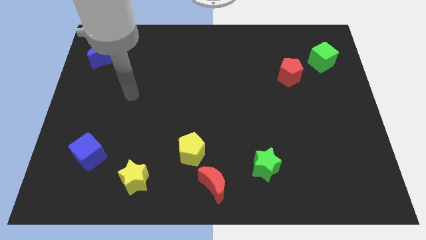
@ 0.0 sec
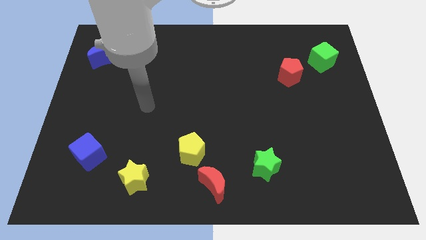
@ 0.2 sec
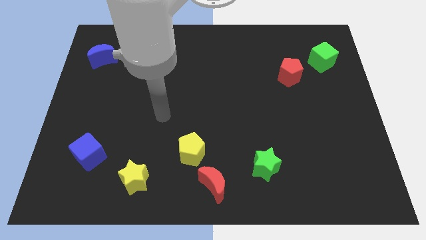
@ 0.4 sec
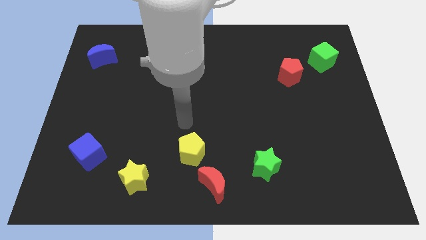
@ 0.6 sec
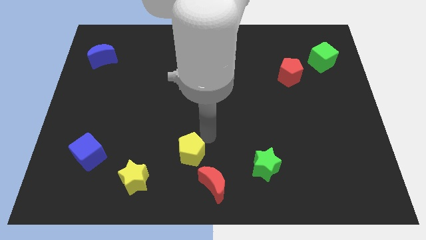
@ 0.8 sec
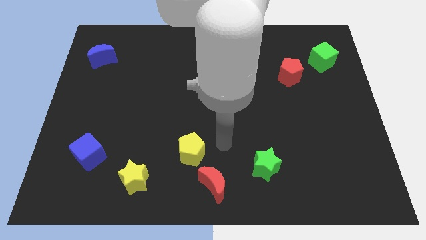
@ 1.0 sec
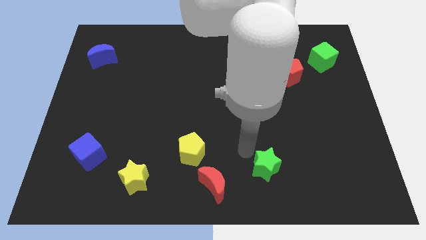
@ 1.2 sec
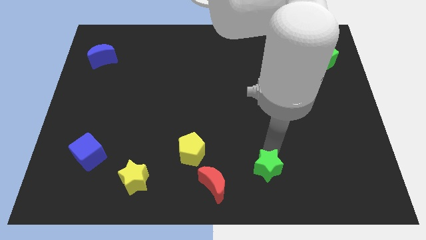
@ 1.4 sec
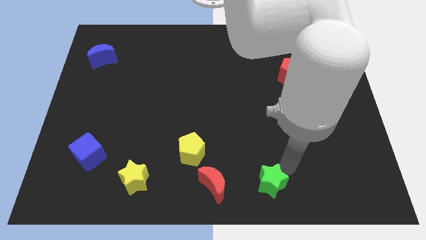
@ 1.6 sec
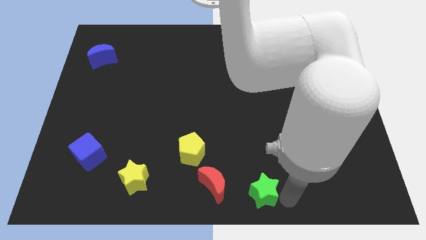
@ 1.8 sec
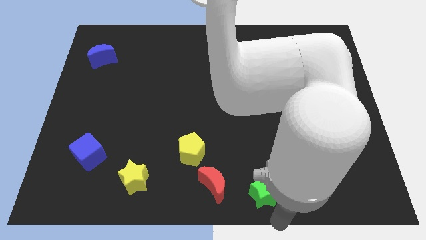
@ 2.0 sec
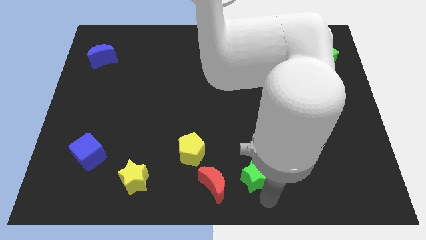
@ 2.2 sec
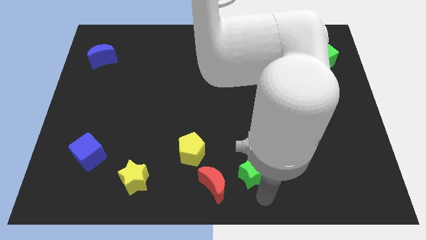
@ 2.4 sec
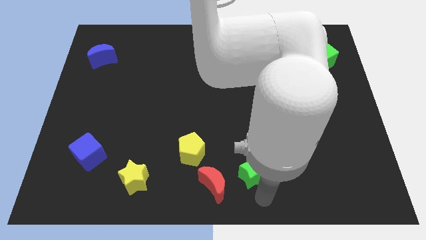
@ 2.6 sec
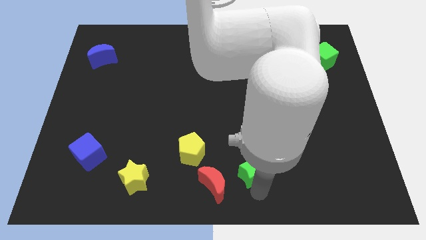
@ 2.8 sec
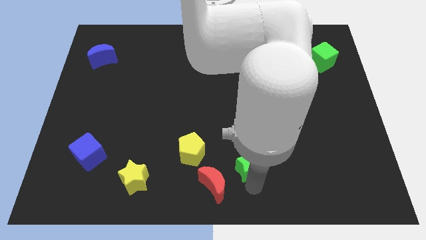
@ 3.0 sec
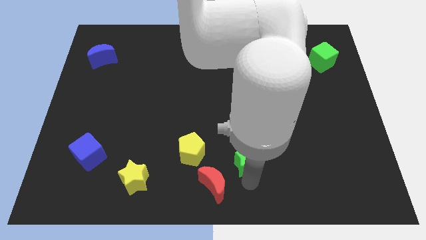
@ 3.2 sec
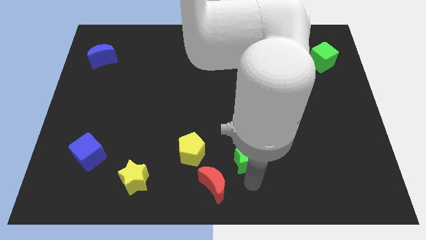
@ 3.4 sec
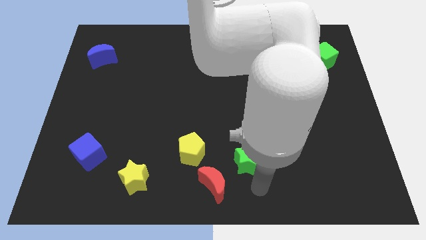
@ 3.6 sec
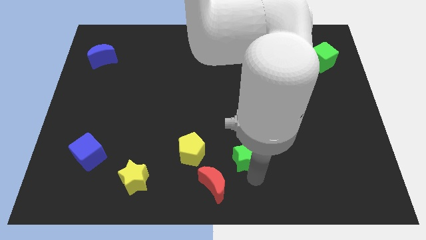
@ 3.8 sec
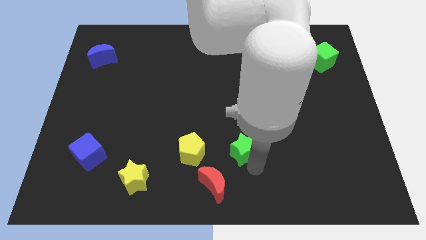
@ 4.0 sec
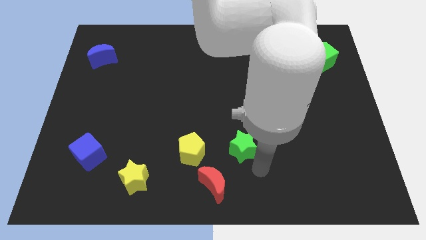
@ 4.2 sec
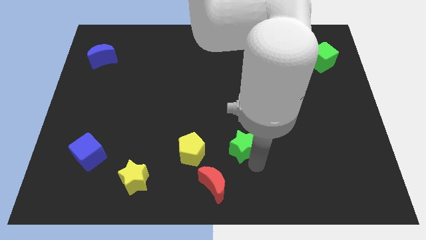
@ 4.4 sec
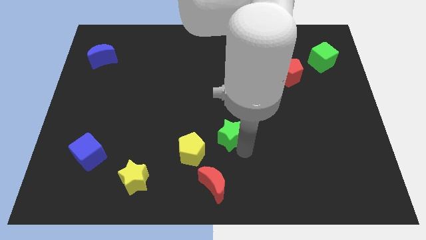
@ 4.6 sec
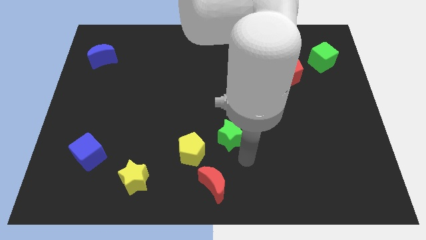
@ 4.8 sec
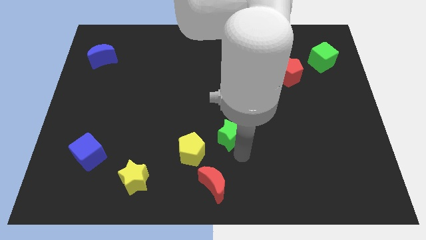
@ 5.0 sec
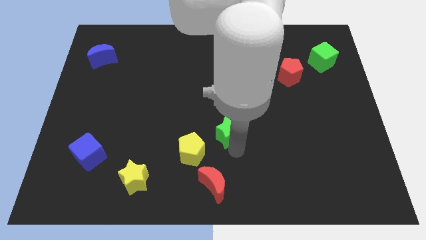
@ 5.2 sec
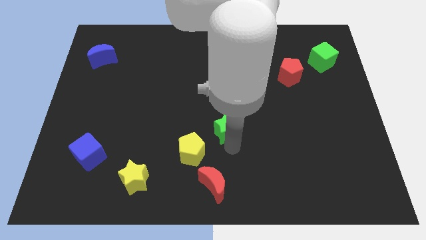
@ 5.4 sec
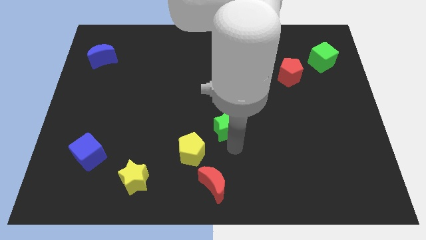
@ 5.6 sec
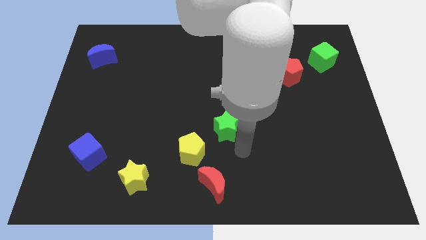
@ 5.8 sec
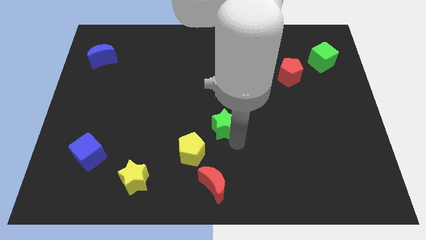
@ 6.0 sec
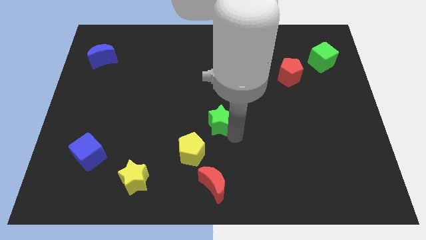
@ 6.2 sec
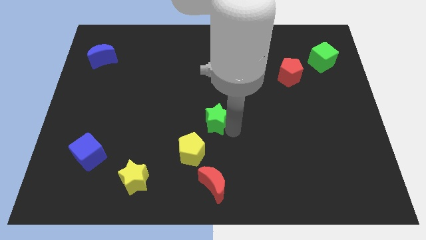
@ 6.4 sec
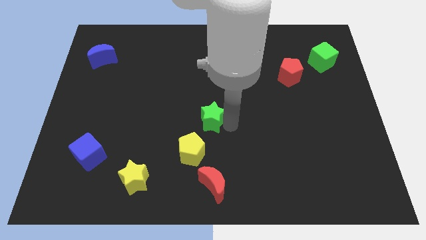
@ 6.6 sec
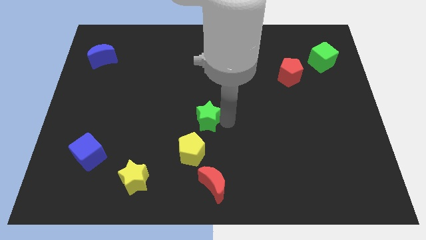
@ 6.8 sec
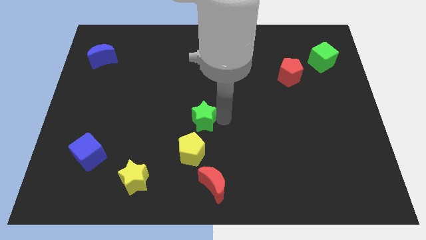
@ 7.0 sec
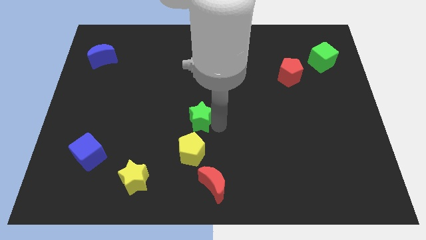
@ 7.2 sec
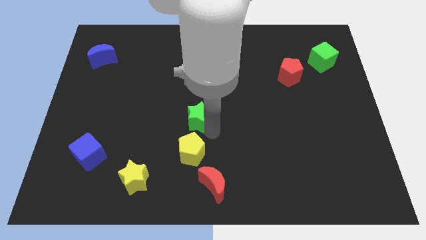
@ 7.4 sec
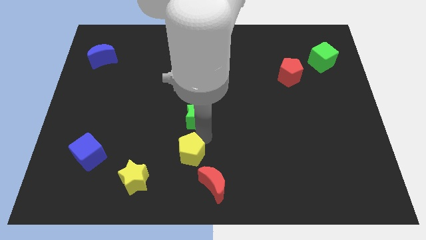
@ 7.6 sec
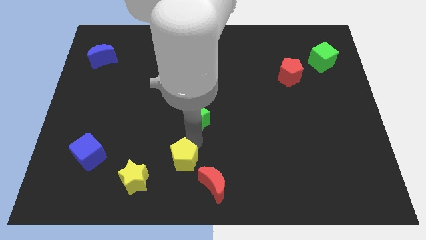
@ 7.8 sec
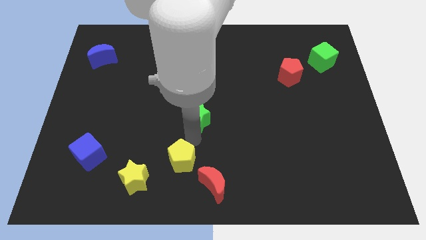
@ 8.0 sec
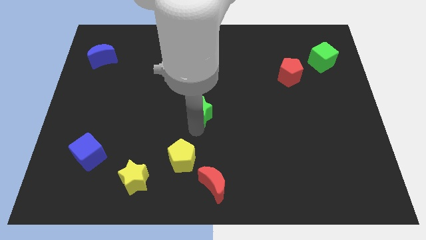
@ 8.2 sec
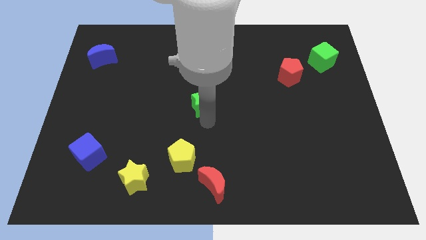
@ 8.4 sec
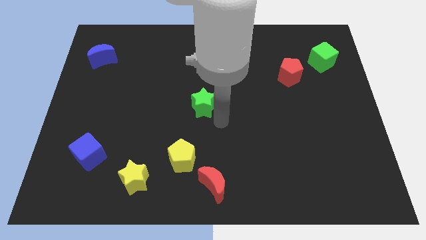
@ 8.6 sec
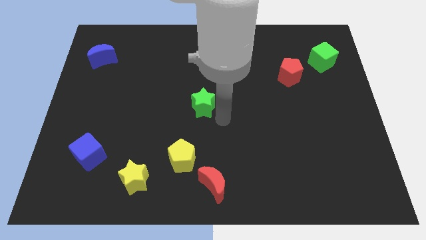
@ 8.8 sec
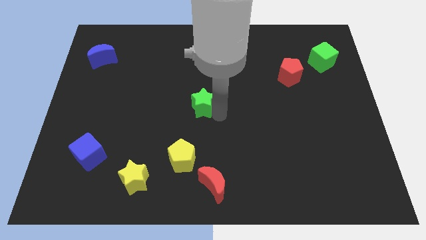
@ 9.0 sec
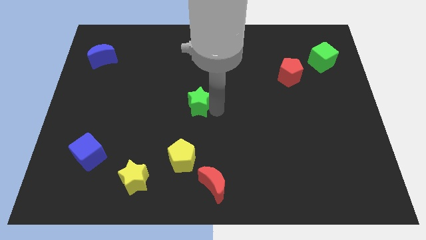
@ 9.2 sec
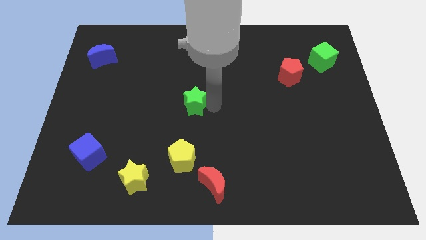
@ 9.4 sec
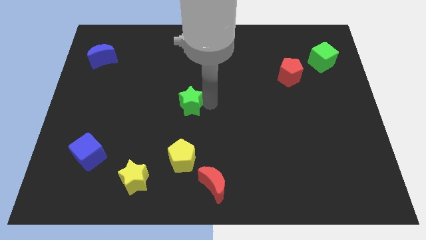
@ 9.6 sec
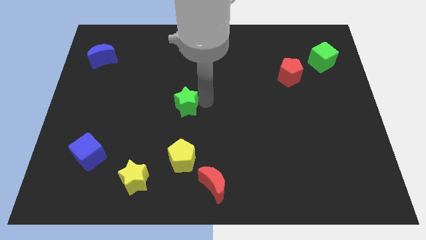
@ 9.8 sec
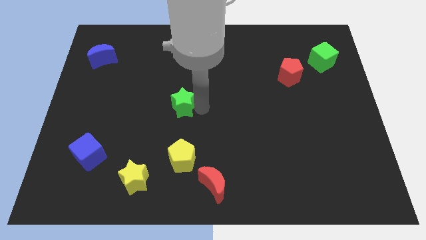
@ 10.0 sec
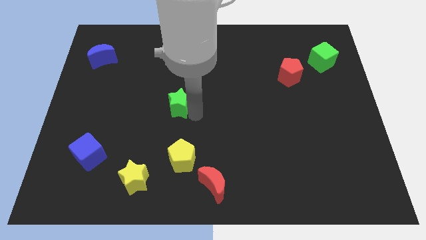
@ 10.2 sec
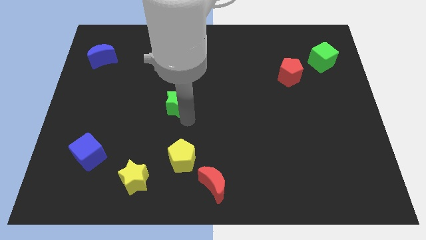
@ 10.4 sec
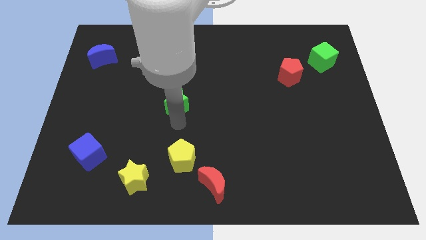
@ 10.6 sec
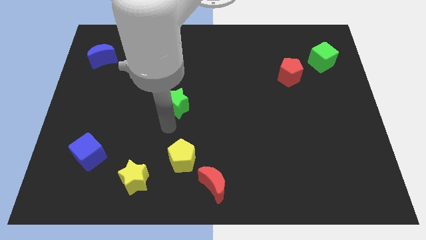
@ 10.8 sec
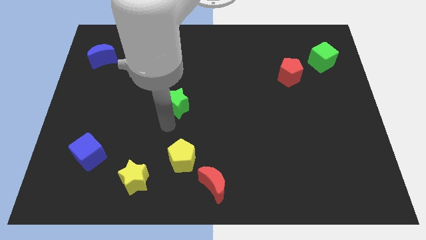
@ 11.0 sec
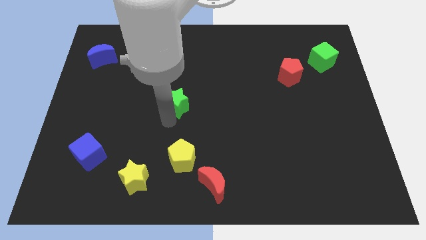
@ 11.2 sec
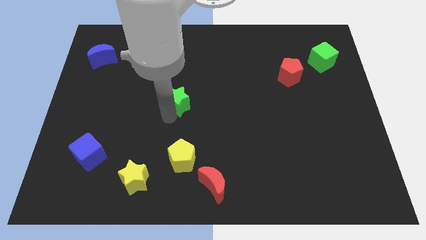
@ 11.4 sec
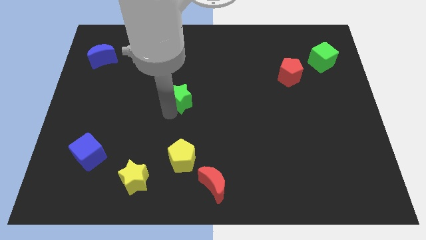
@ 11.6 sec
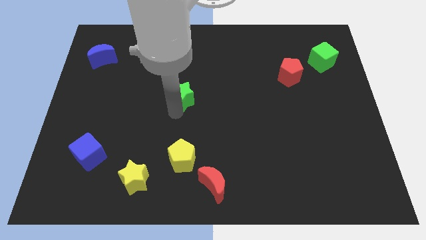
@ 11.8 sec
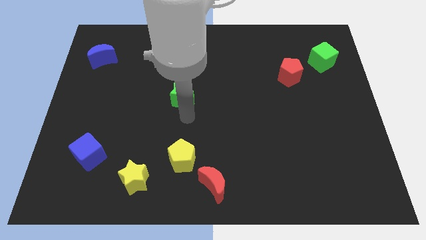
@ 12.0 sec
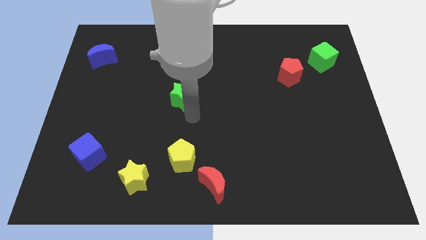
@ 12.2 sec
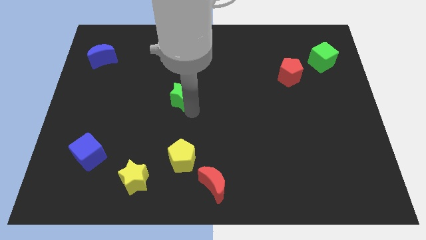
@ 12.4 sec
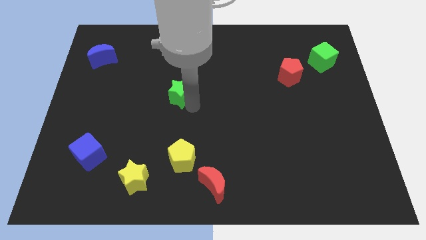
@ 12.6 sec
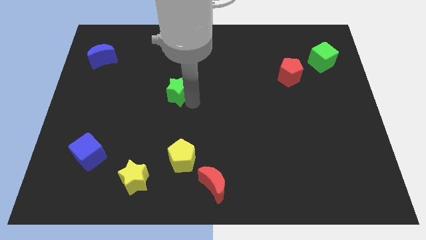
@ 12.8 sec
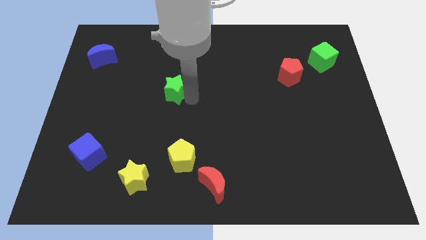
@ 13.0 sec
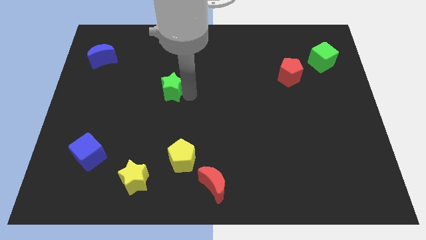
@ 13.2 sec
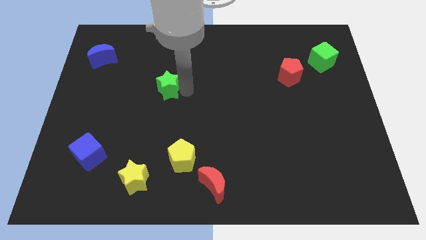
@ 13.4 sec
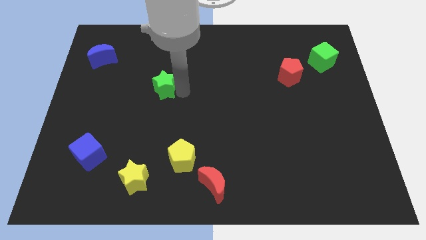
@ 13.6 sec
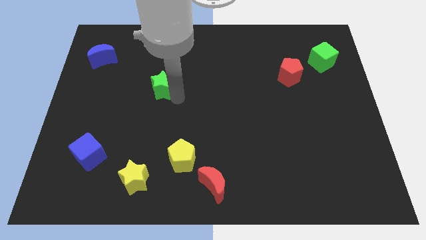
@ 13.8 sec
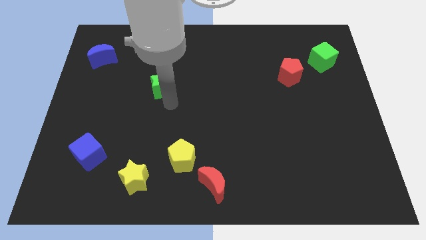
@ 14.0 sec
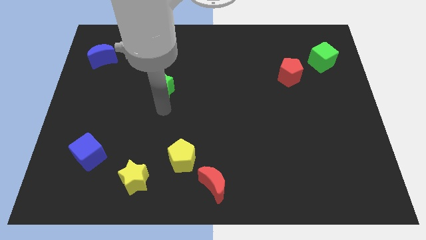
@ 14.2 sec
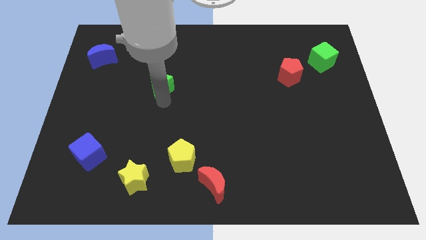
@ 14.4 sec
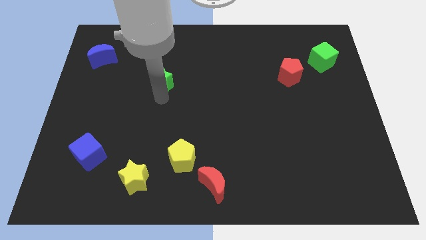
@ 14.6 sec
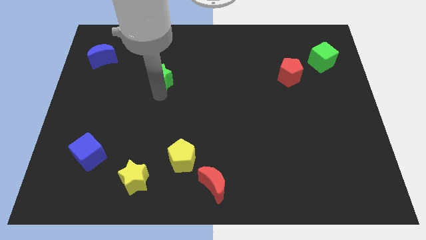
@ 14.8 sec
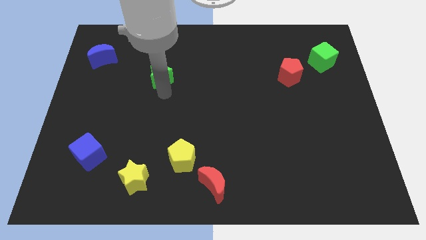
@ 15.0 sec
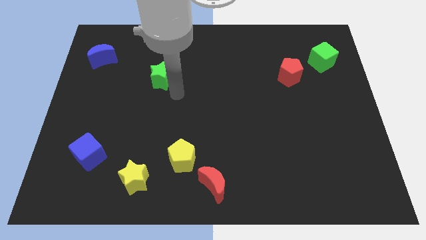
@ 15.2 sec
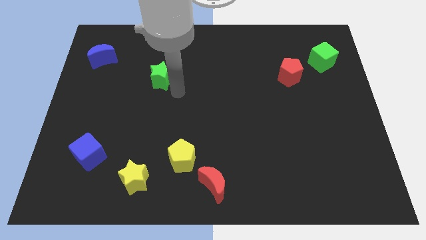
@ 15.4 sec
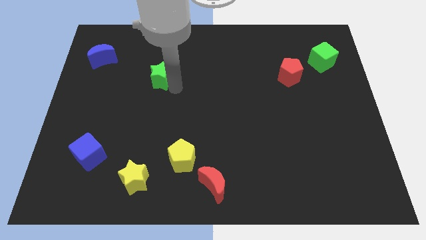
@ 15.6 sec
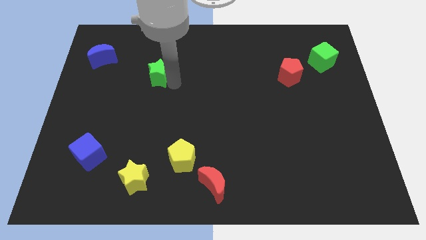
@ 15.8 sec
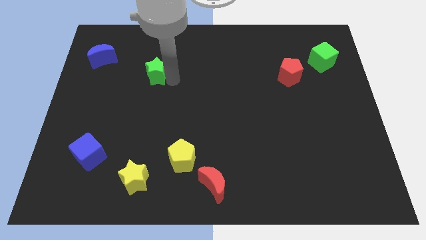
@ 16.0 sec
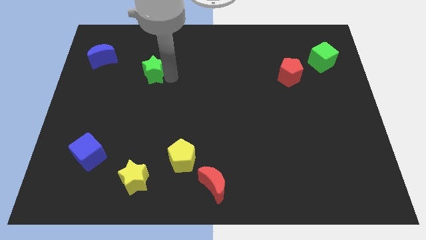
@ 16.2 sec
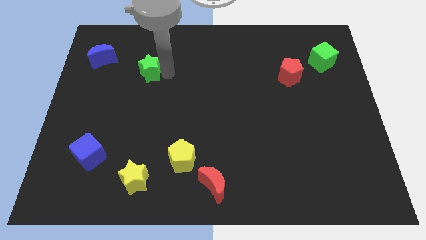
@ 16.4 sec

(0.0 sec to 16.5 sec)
push the green star to the right of the blue moon
